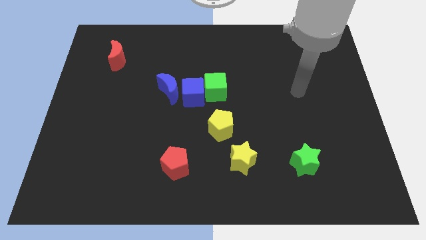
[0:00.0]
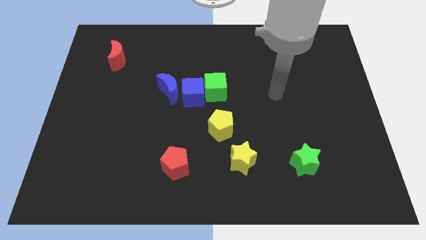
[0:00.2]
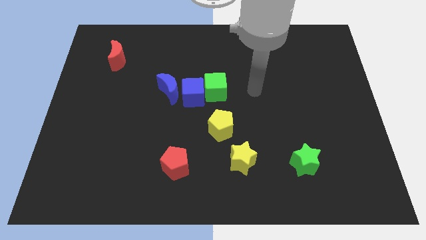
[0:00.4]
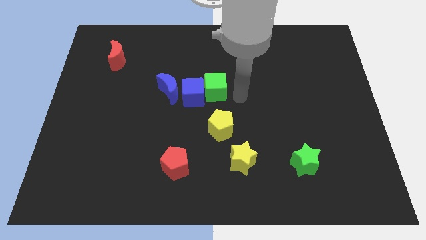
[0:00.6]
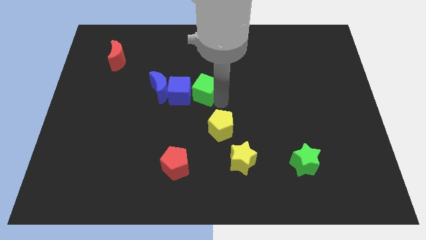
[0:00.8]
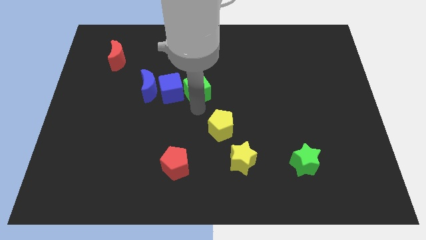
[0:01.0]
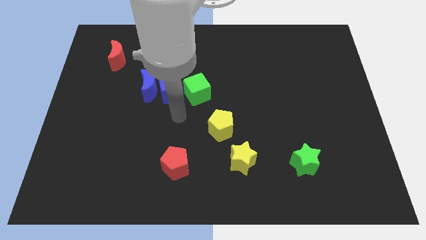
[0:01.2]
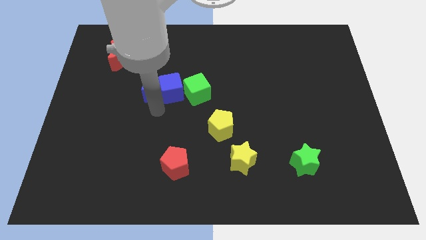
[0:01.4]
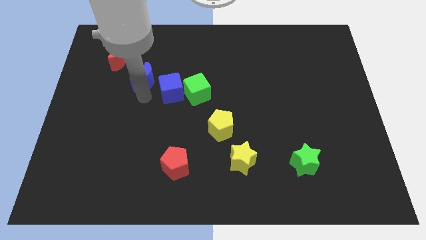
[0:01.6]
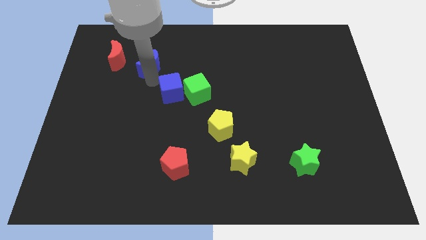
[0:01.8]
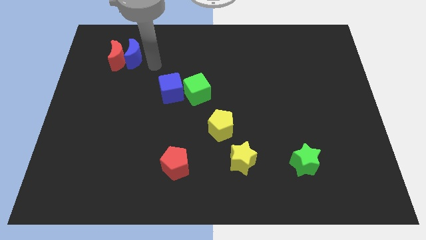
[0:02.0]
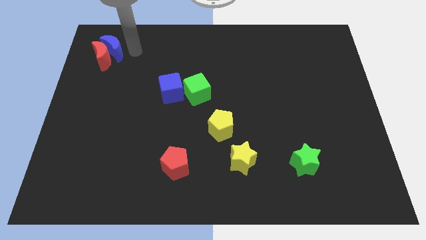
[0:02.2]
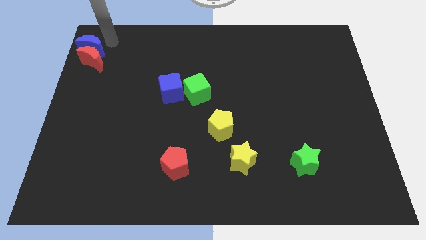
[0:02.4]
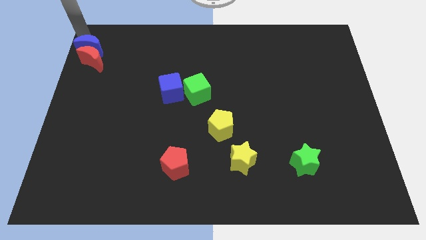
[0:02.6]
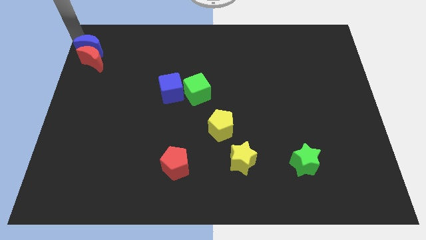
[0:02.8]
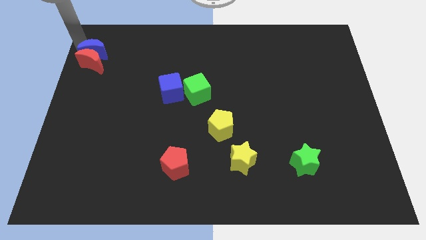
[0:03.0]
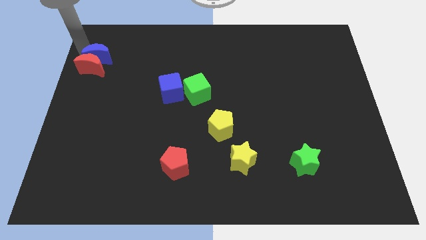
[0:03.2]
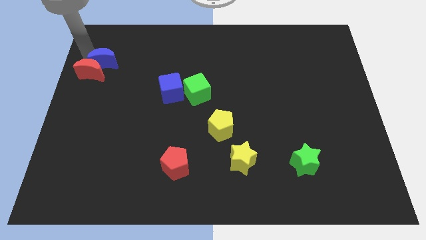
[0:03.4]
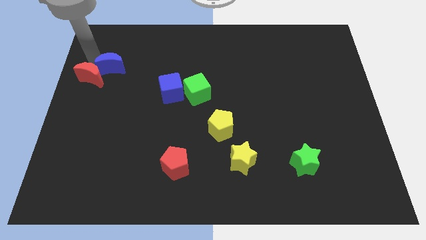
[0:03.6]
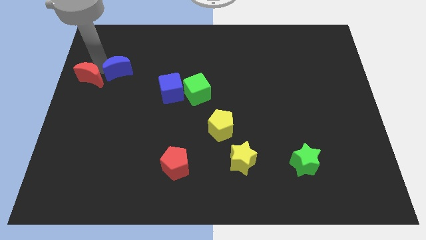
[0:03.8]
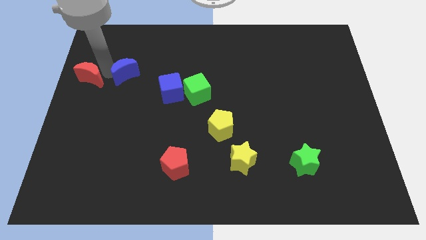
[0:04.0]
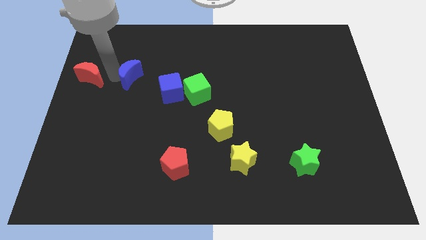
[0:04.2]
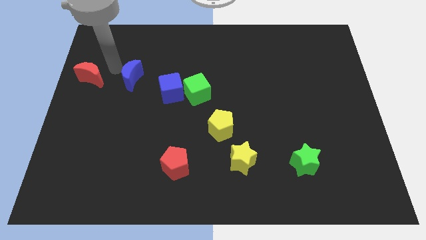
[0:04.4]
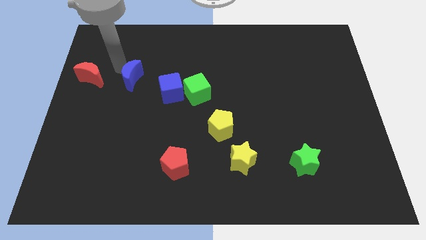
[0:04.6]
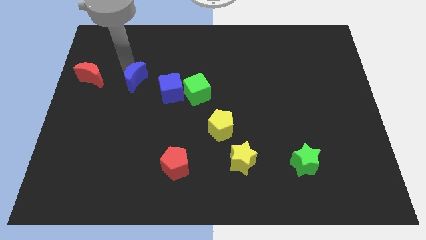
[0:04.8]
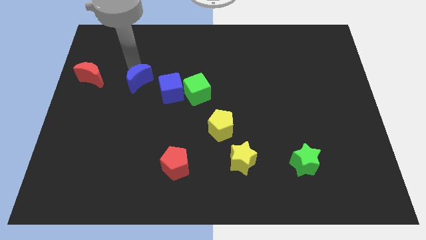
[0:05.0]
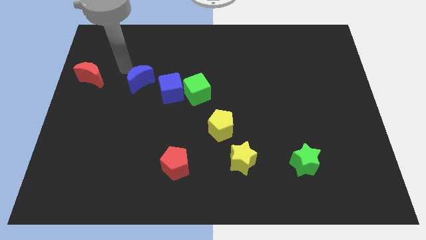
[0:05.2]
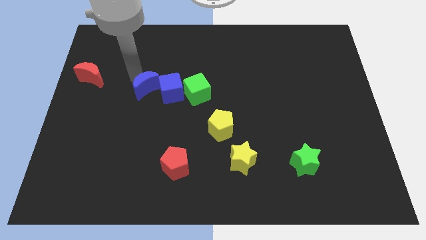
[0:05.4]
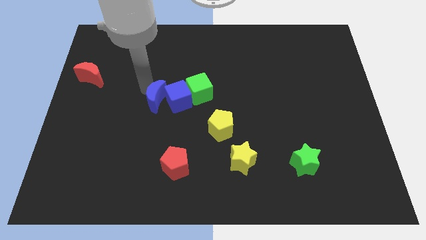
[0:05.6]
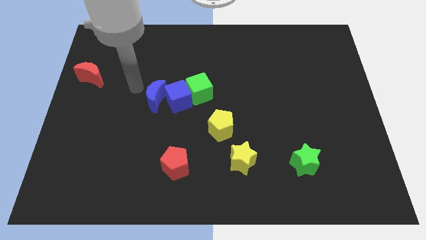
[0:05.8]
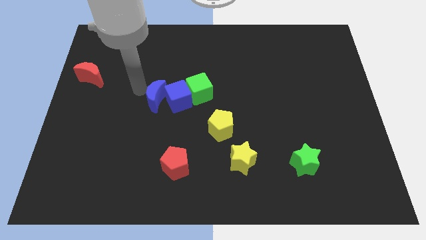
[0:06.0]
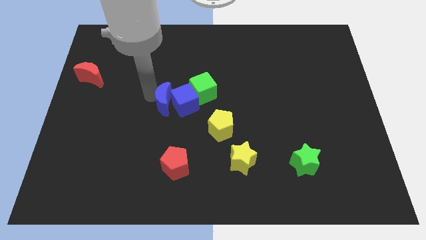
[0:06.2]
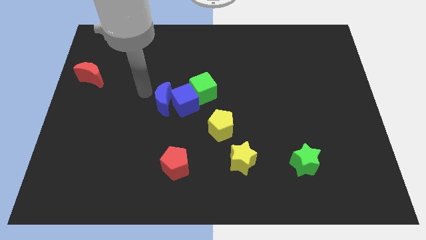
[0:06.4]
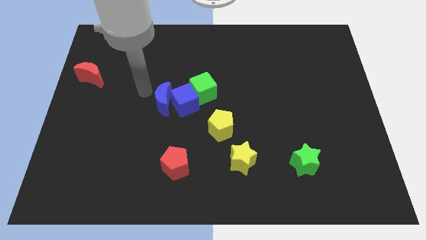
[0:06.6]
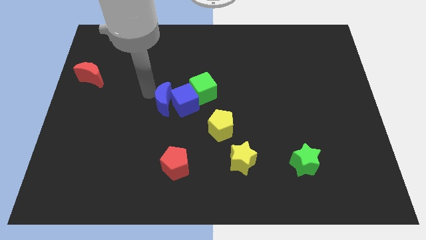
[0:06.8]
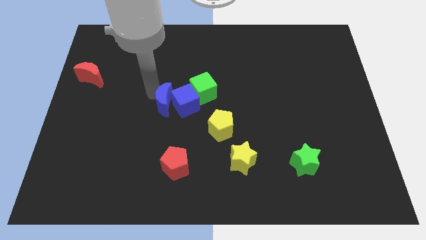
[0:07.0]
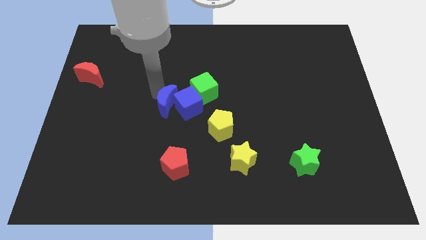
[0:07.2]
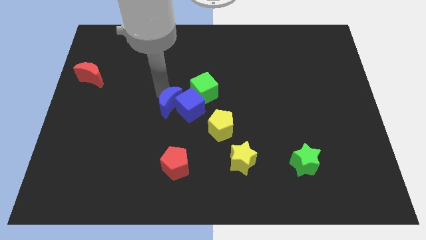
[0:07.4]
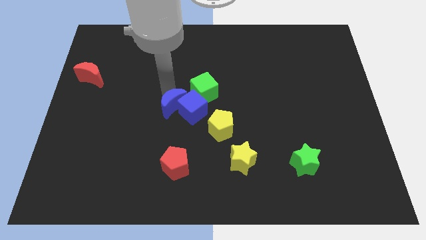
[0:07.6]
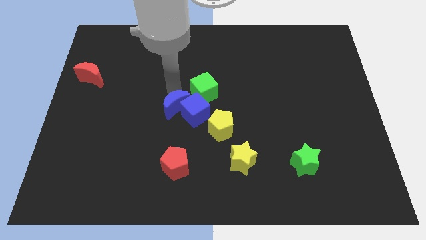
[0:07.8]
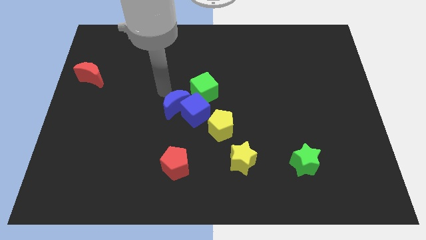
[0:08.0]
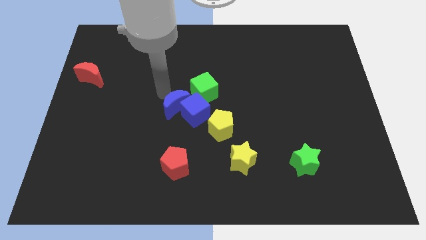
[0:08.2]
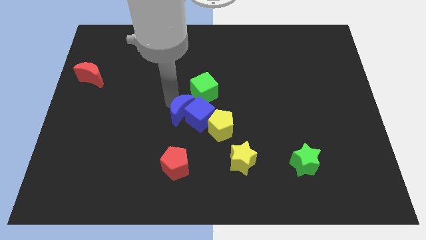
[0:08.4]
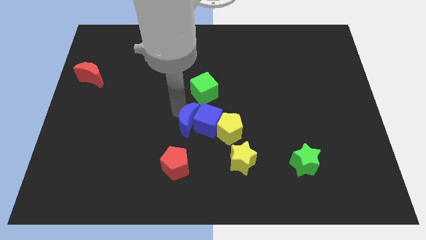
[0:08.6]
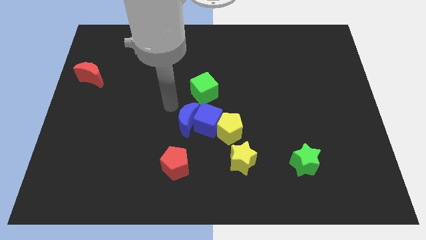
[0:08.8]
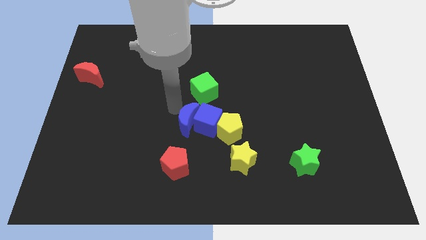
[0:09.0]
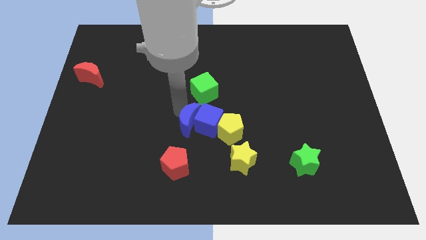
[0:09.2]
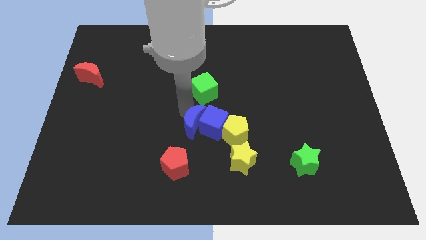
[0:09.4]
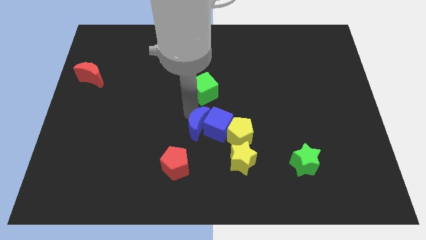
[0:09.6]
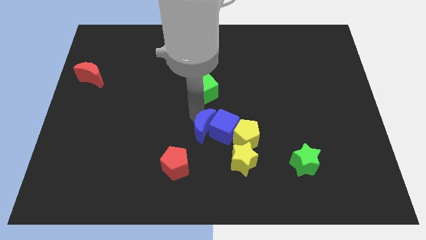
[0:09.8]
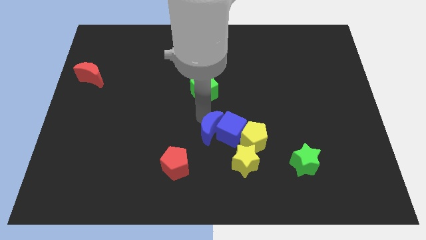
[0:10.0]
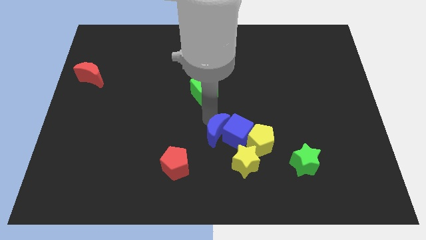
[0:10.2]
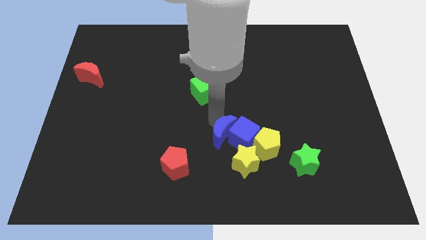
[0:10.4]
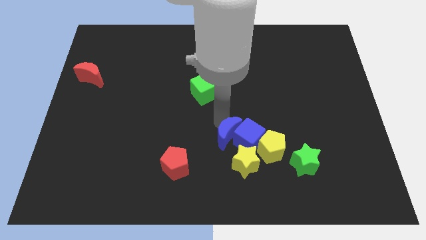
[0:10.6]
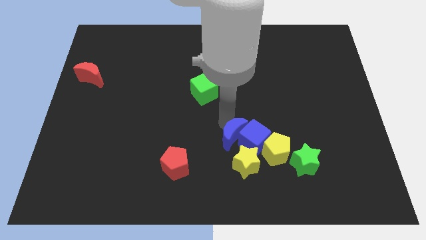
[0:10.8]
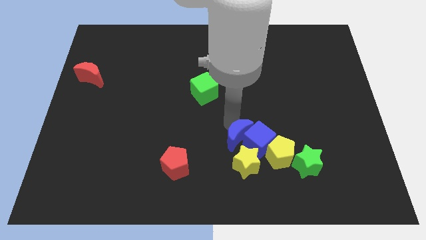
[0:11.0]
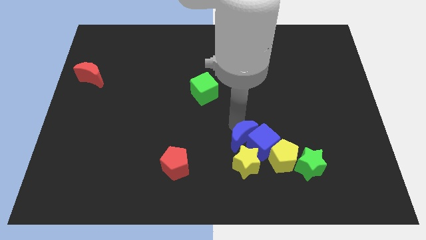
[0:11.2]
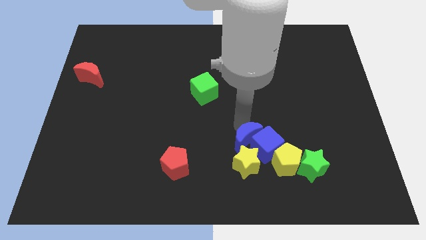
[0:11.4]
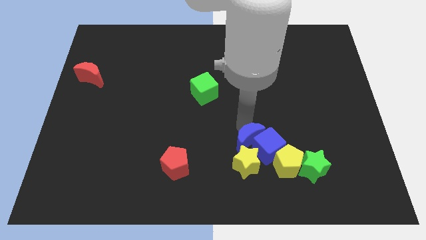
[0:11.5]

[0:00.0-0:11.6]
move the blue moon next to the yellow star

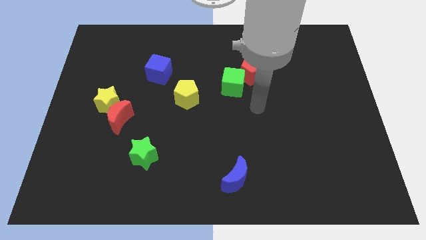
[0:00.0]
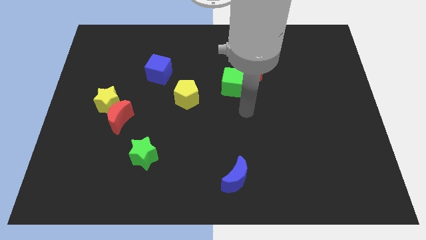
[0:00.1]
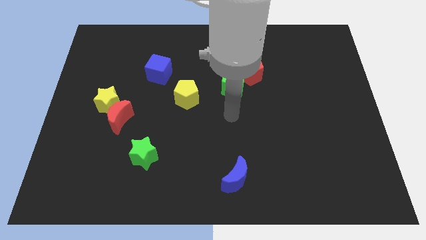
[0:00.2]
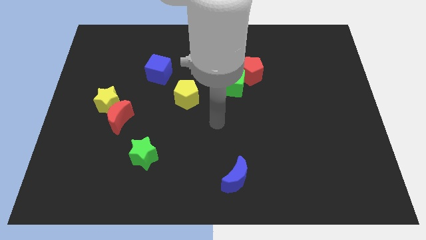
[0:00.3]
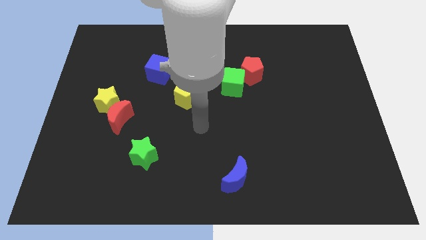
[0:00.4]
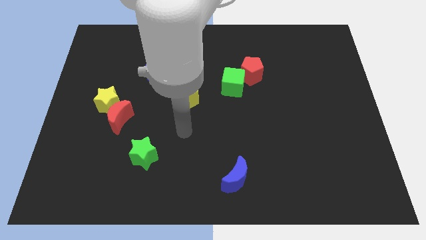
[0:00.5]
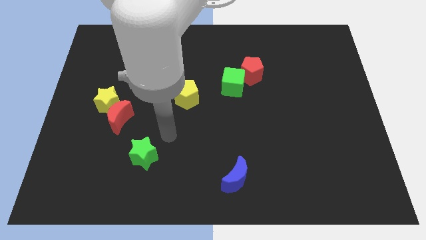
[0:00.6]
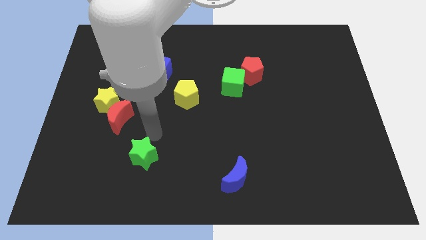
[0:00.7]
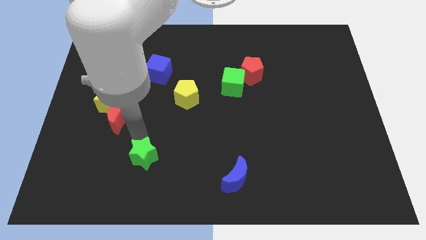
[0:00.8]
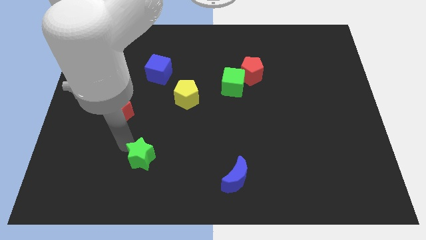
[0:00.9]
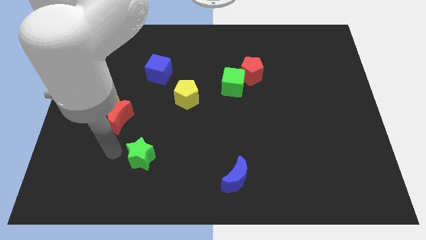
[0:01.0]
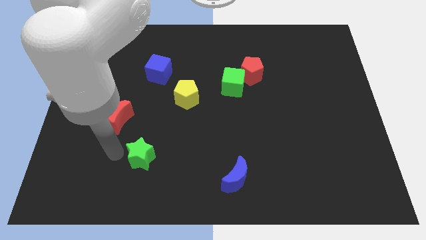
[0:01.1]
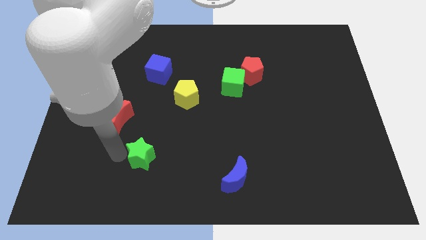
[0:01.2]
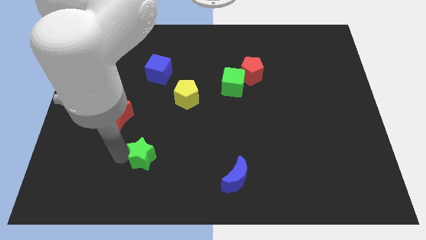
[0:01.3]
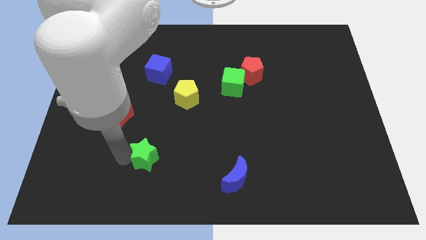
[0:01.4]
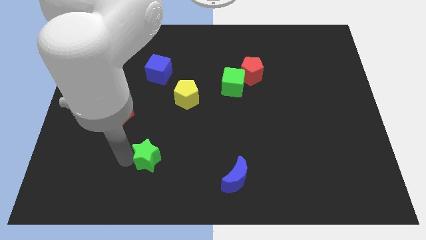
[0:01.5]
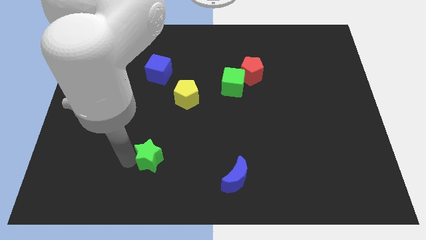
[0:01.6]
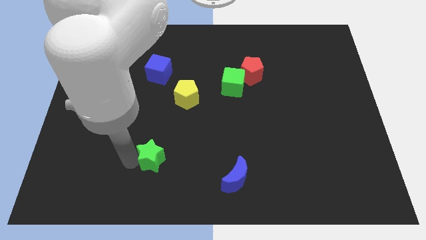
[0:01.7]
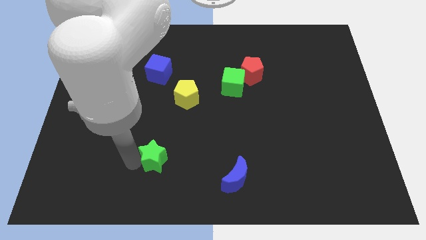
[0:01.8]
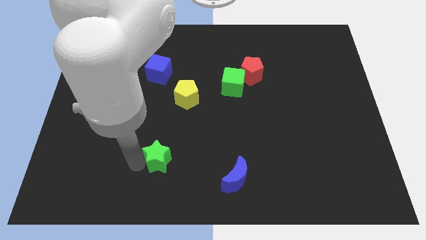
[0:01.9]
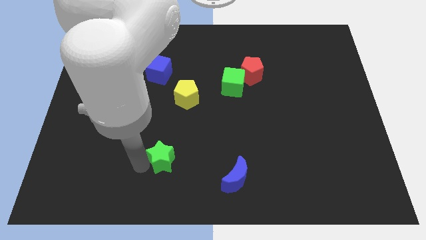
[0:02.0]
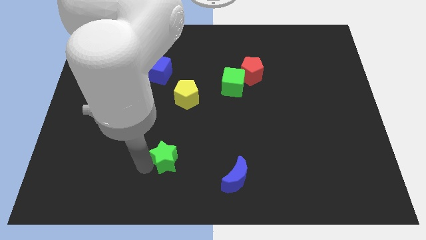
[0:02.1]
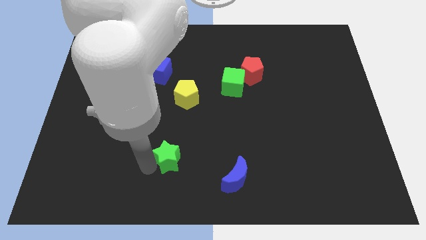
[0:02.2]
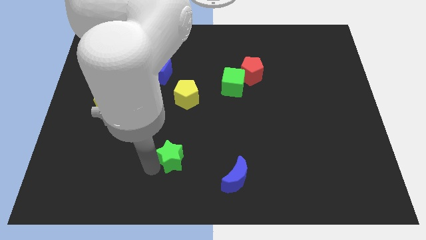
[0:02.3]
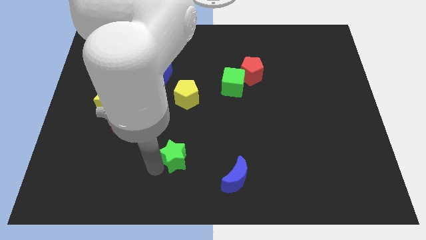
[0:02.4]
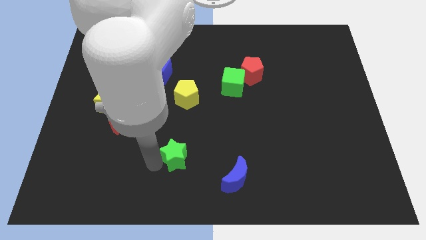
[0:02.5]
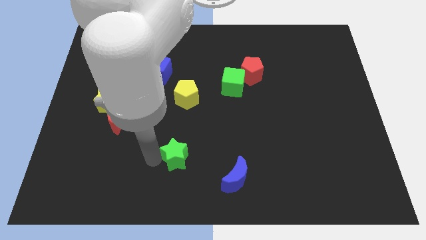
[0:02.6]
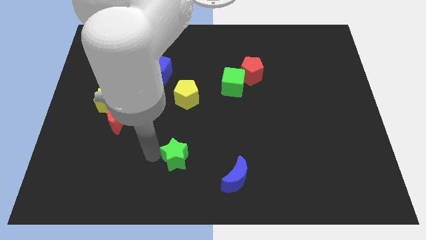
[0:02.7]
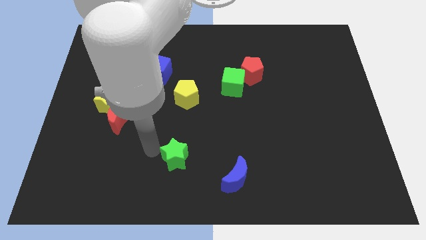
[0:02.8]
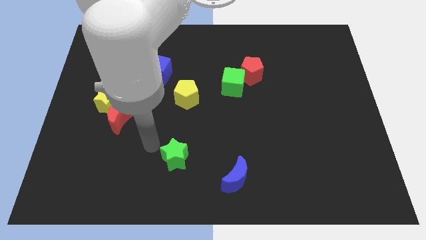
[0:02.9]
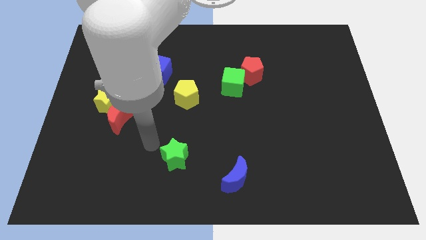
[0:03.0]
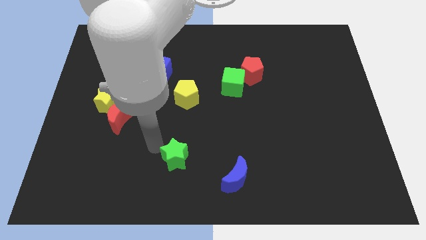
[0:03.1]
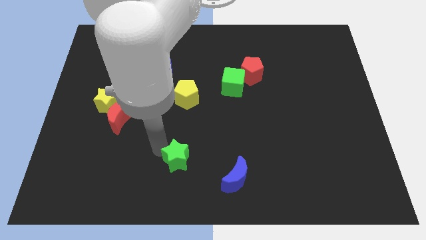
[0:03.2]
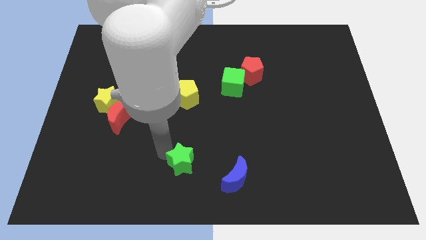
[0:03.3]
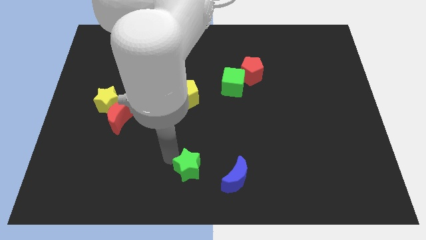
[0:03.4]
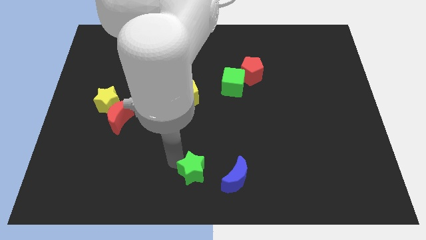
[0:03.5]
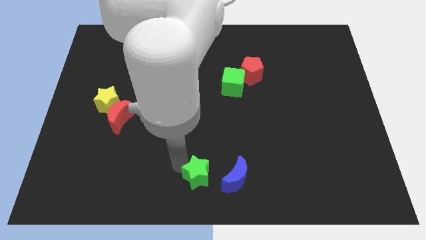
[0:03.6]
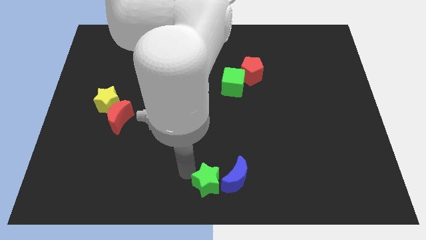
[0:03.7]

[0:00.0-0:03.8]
move the green star to the blue moon
